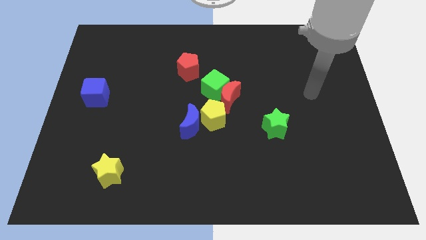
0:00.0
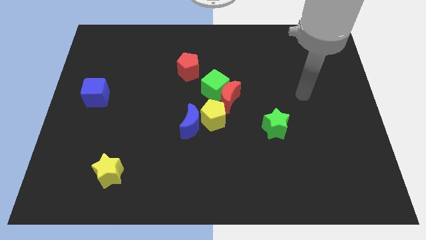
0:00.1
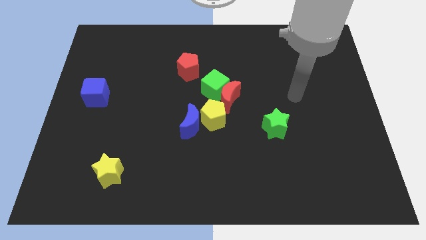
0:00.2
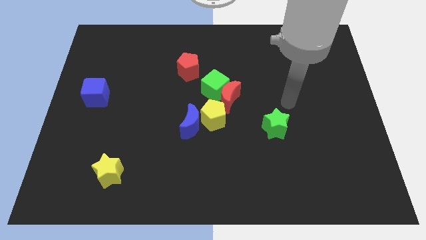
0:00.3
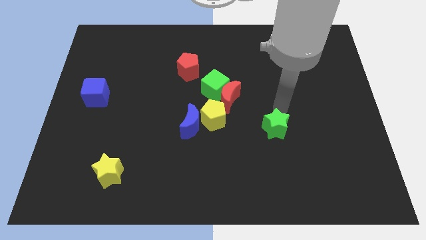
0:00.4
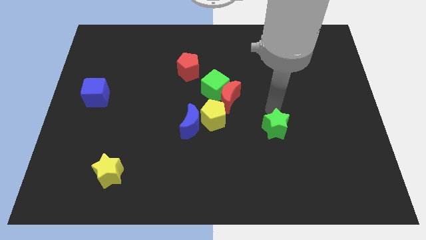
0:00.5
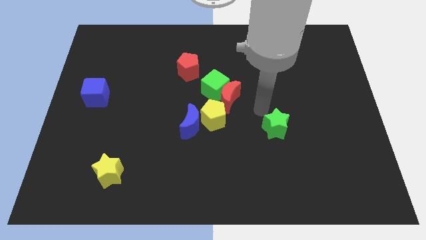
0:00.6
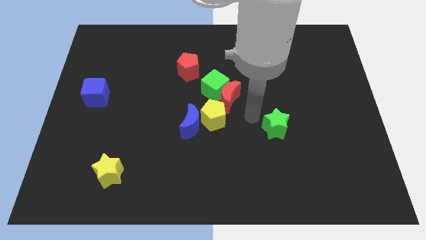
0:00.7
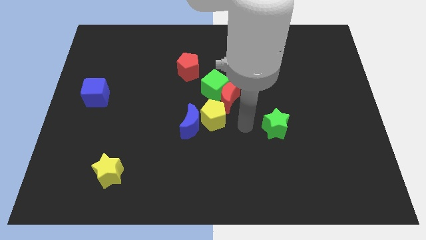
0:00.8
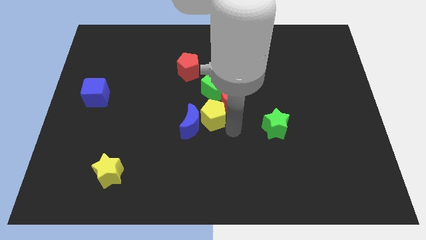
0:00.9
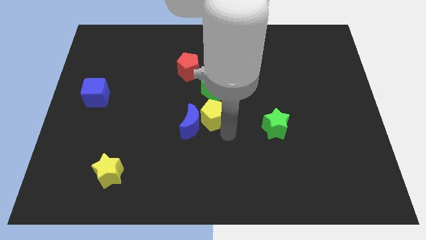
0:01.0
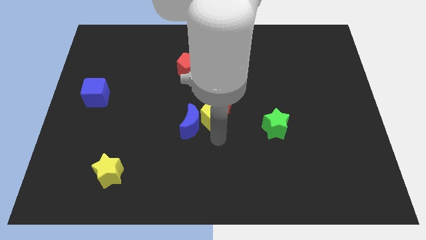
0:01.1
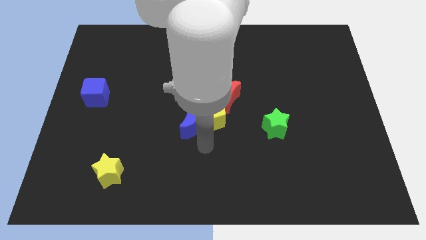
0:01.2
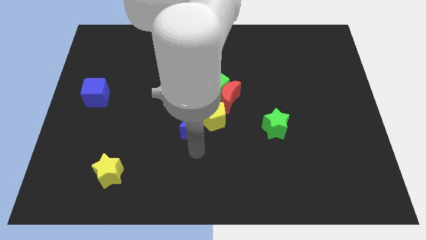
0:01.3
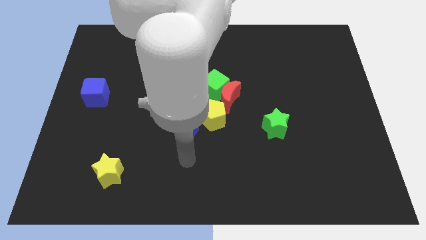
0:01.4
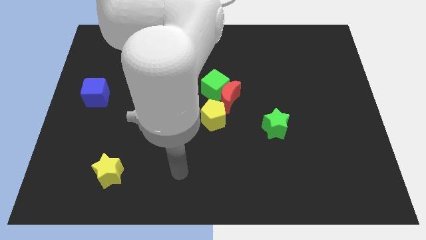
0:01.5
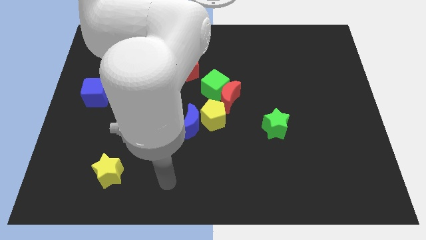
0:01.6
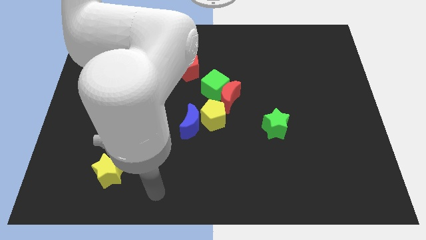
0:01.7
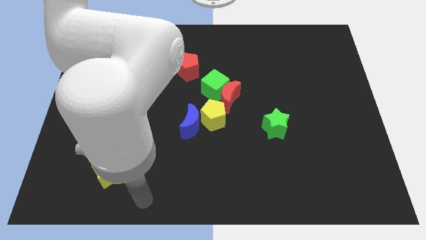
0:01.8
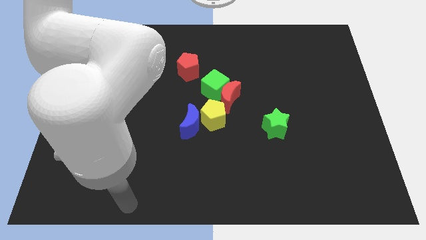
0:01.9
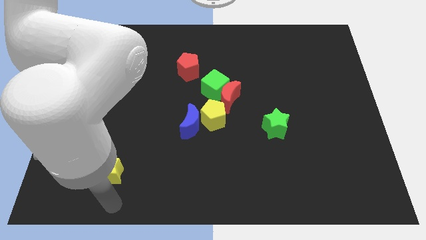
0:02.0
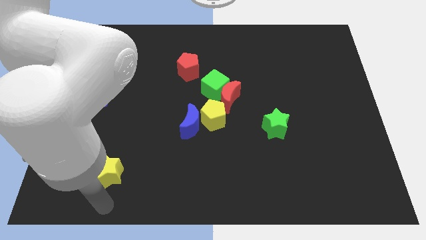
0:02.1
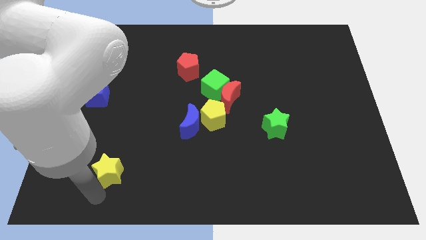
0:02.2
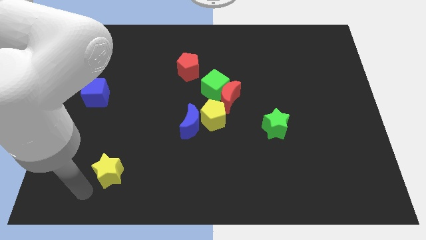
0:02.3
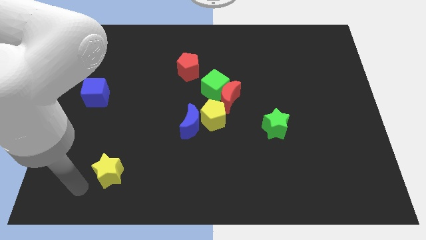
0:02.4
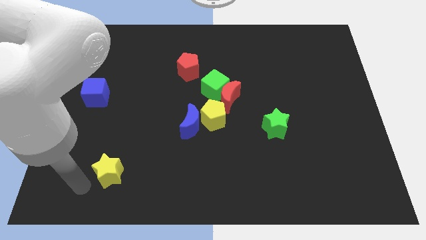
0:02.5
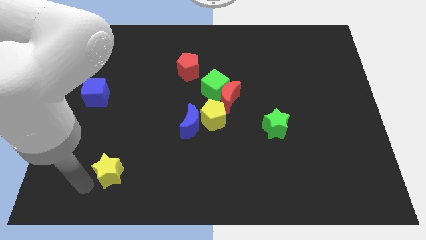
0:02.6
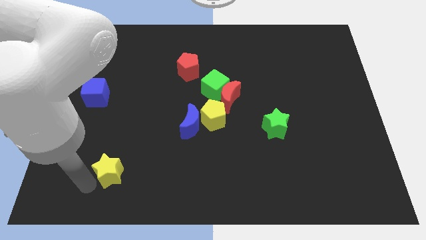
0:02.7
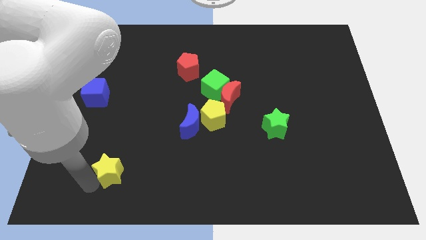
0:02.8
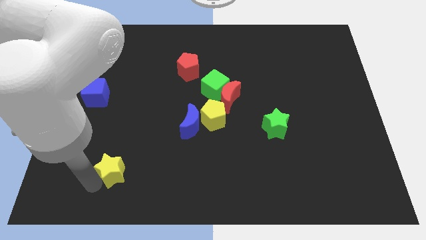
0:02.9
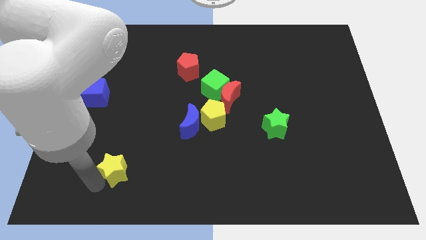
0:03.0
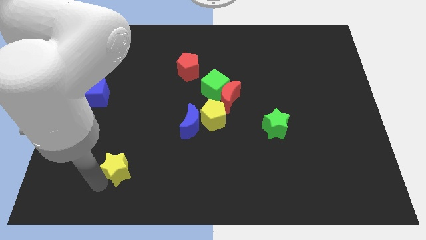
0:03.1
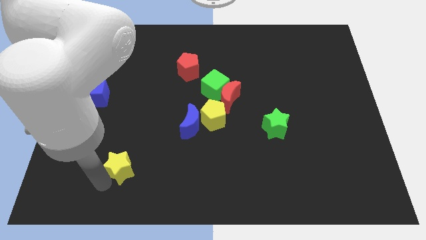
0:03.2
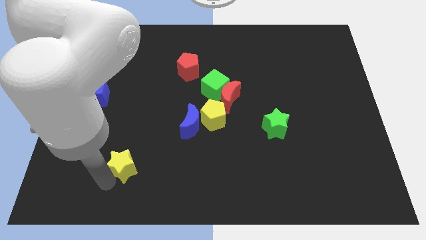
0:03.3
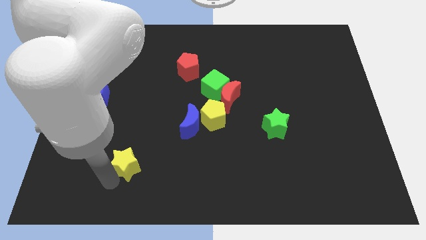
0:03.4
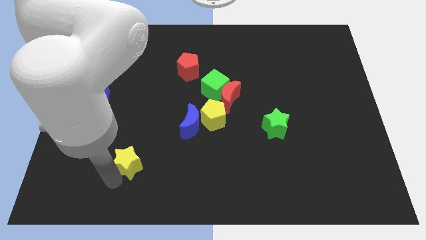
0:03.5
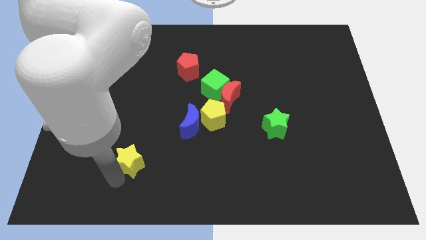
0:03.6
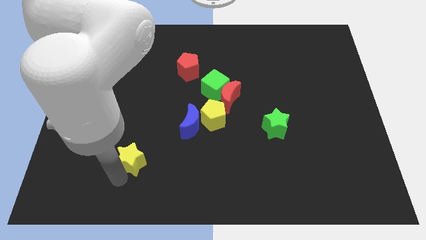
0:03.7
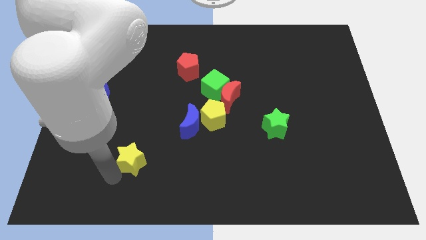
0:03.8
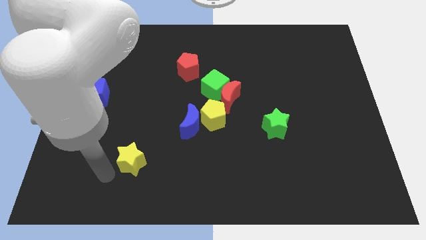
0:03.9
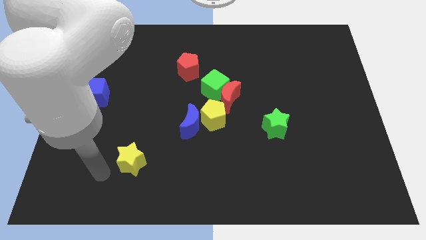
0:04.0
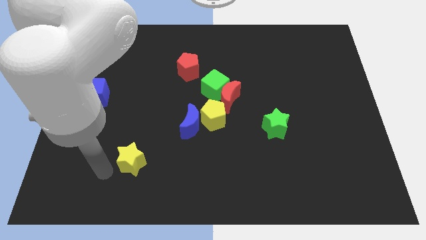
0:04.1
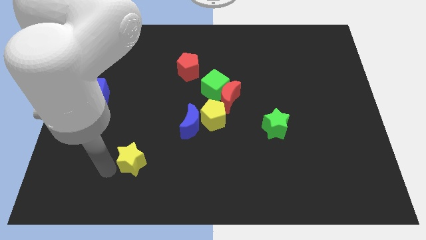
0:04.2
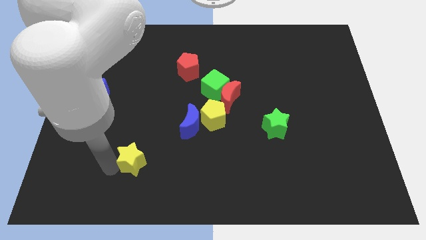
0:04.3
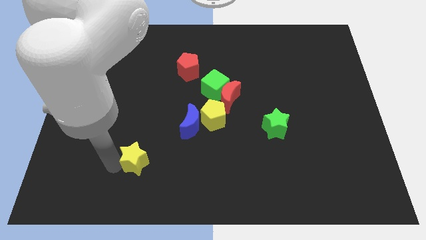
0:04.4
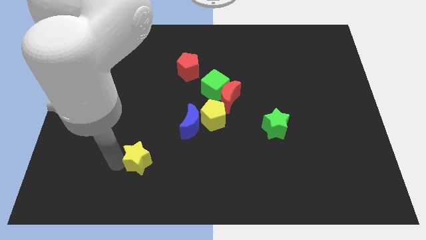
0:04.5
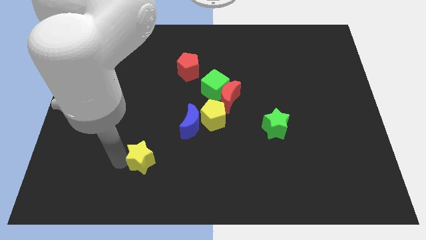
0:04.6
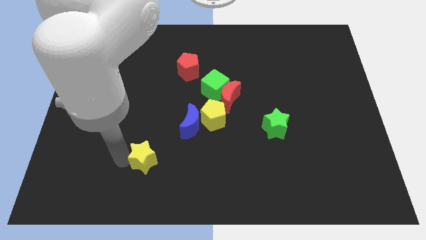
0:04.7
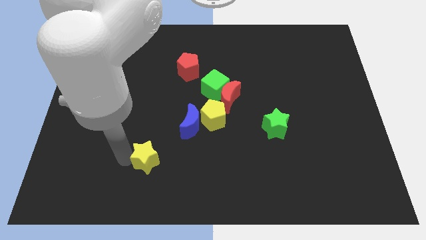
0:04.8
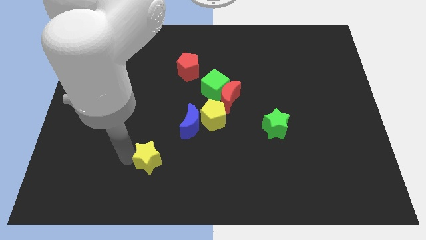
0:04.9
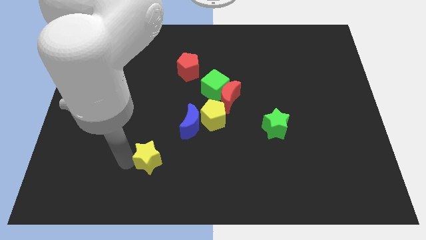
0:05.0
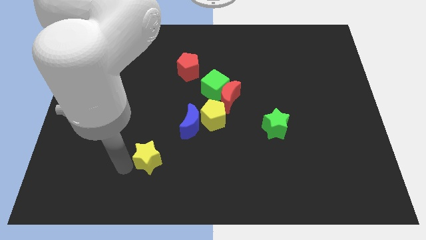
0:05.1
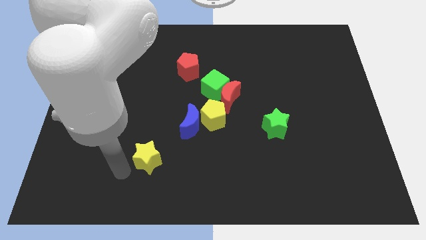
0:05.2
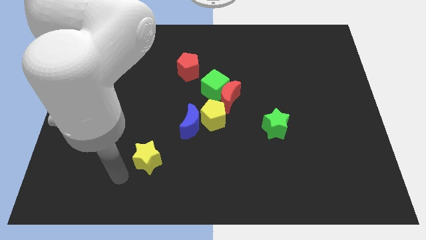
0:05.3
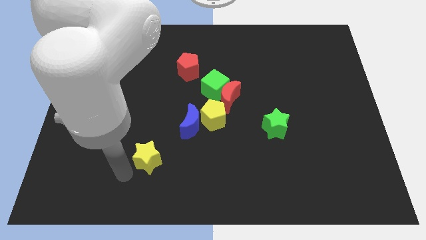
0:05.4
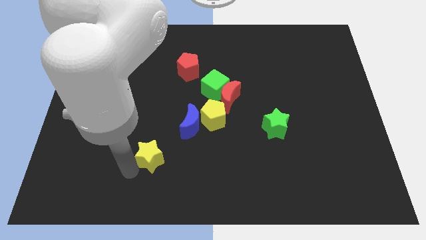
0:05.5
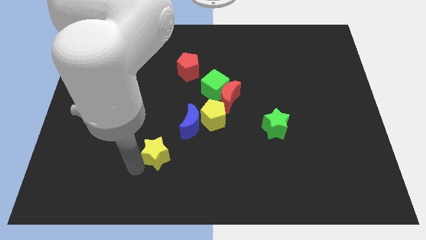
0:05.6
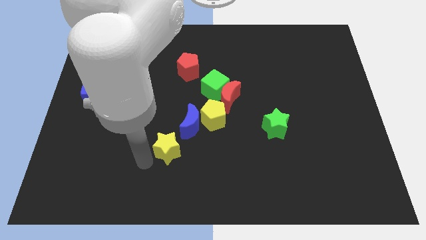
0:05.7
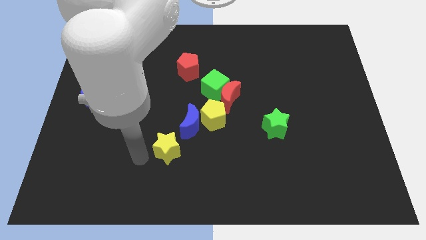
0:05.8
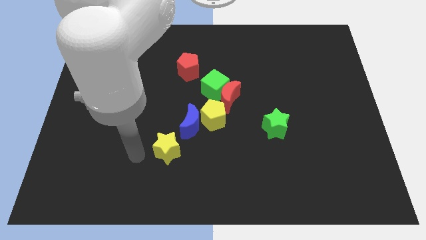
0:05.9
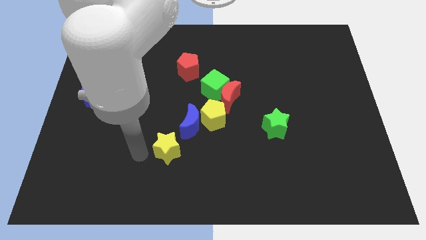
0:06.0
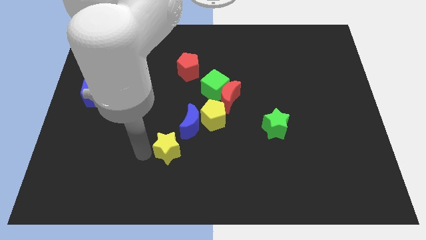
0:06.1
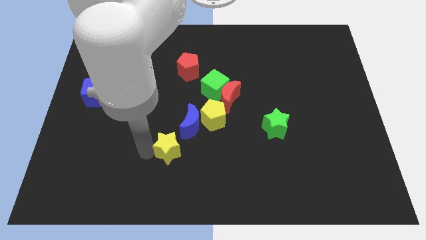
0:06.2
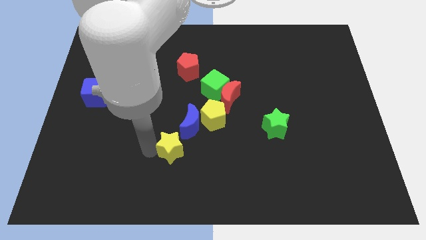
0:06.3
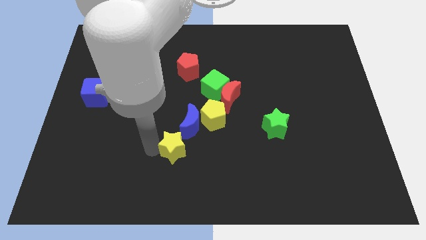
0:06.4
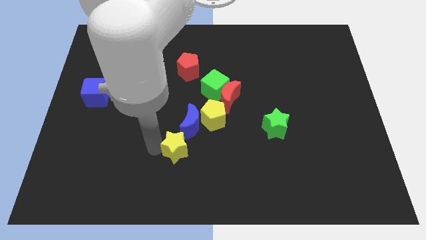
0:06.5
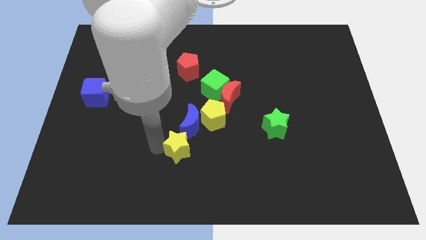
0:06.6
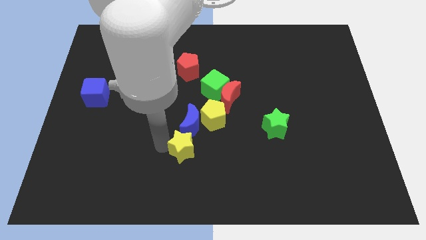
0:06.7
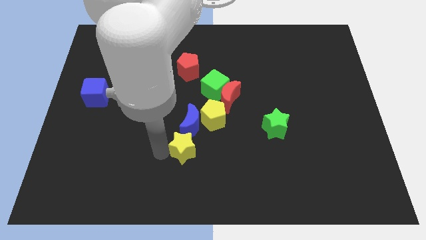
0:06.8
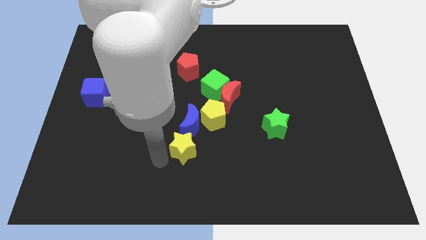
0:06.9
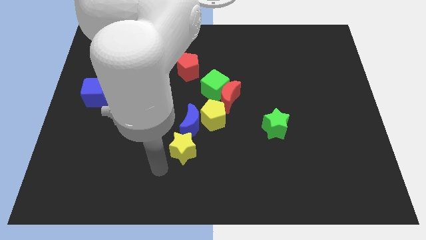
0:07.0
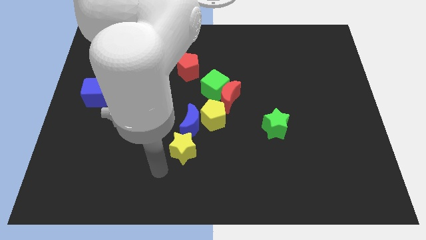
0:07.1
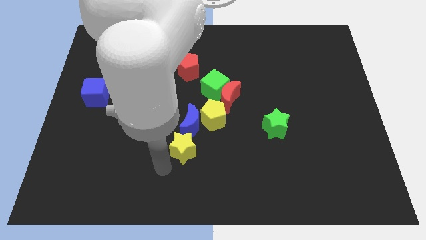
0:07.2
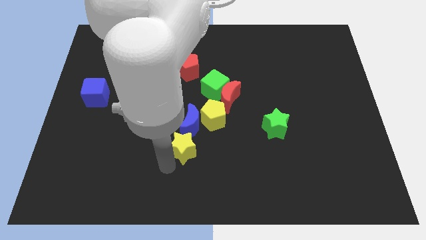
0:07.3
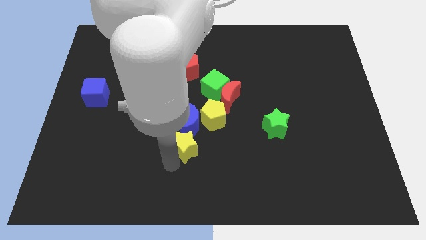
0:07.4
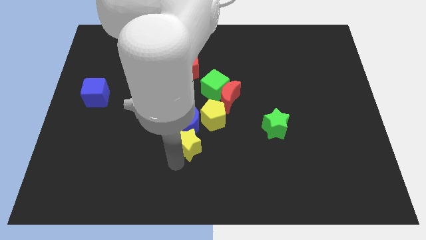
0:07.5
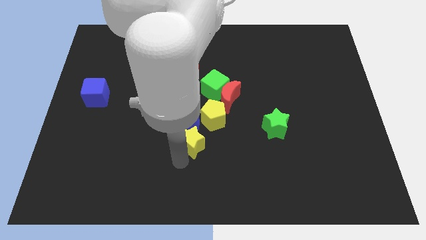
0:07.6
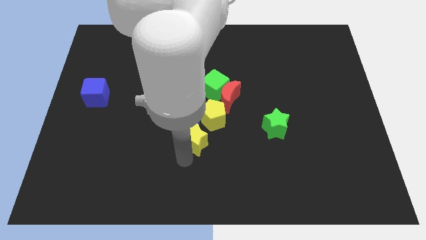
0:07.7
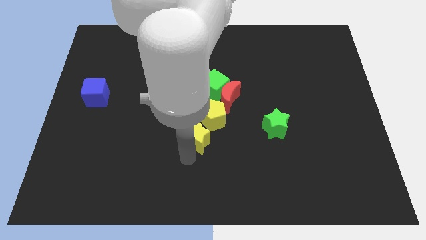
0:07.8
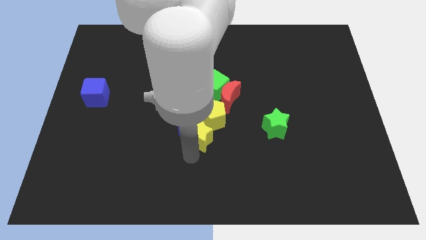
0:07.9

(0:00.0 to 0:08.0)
push the yellow star below the green cube
